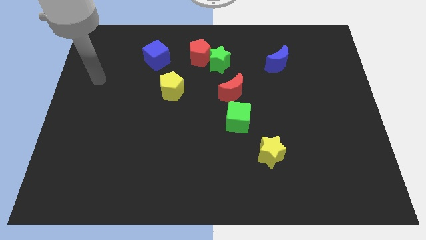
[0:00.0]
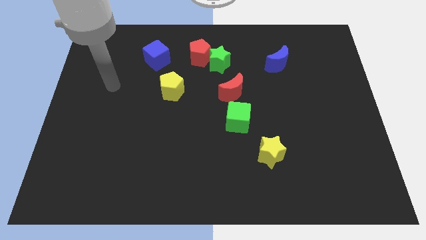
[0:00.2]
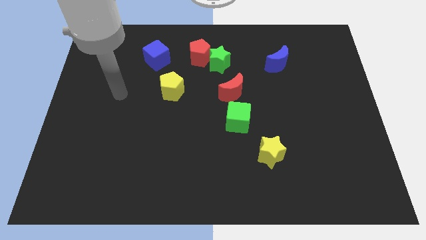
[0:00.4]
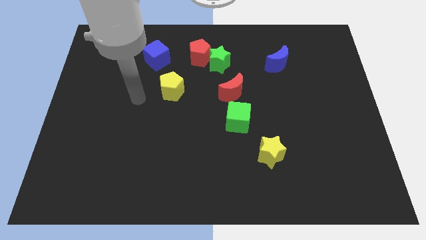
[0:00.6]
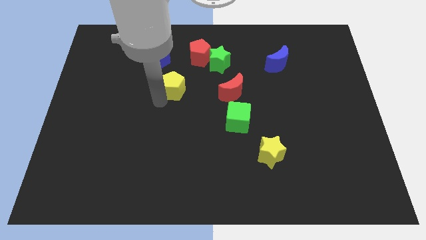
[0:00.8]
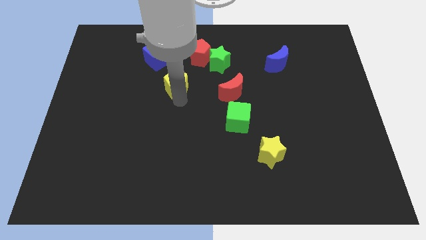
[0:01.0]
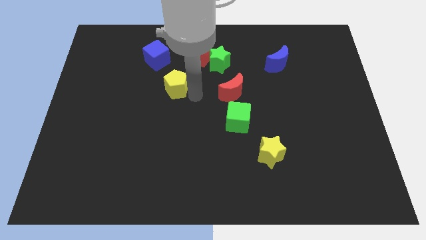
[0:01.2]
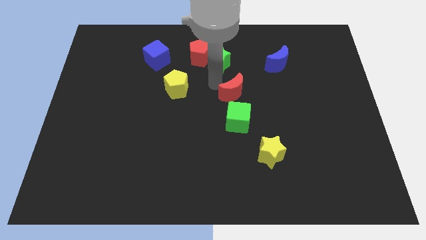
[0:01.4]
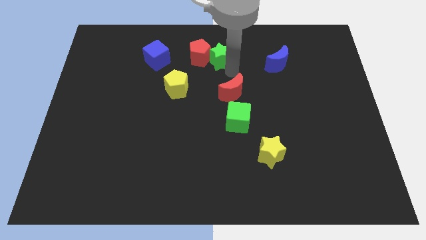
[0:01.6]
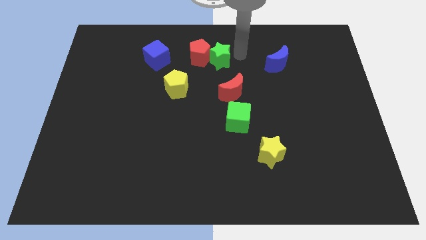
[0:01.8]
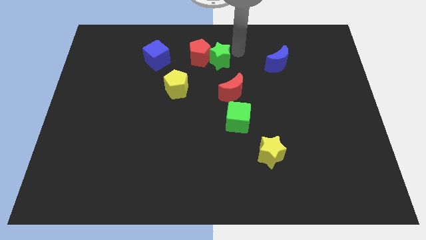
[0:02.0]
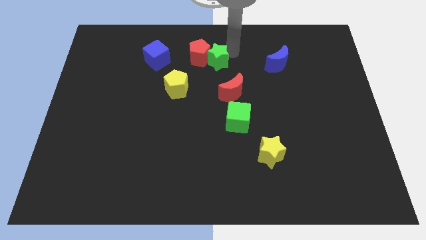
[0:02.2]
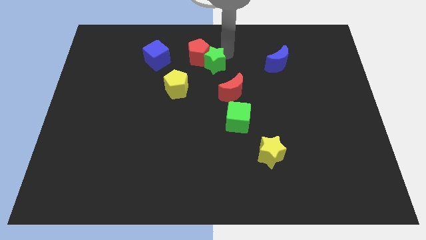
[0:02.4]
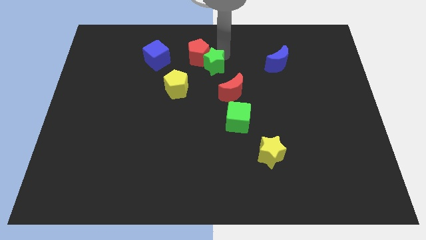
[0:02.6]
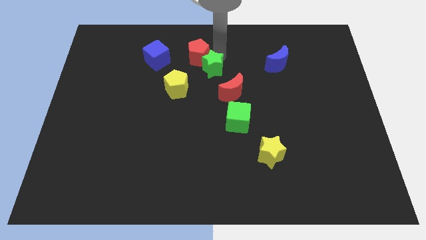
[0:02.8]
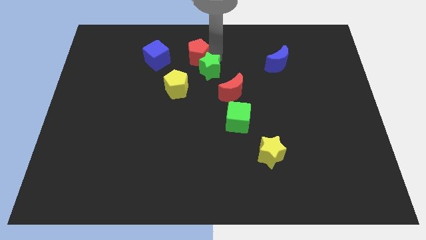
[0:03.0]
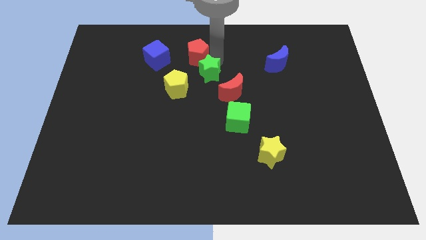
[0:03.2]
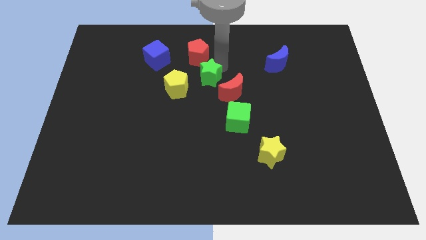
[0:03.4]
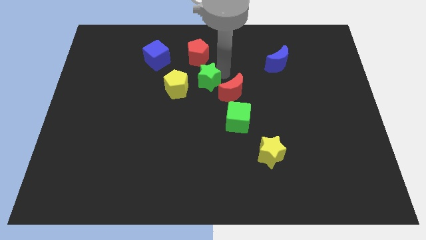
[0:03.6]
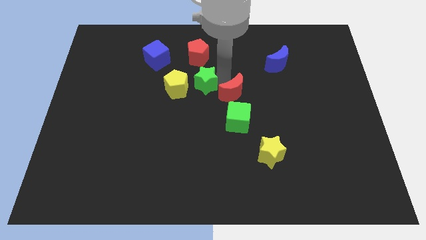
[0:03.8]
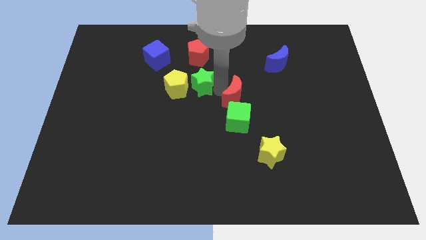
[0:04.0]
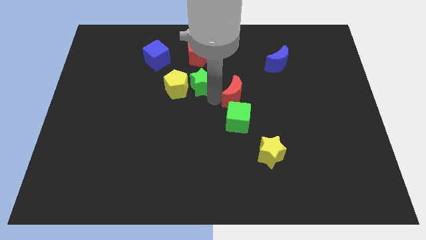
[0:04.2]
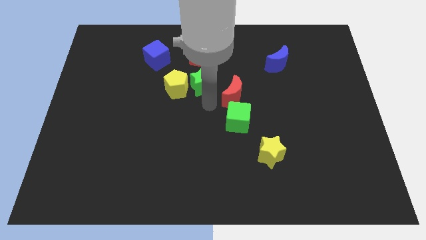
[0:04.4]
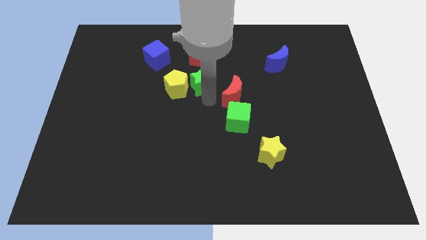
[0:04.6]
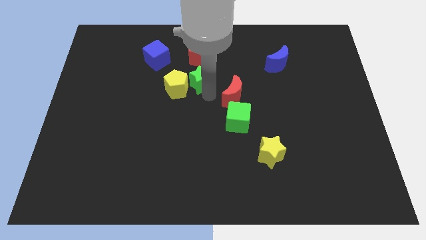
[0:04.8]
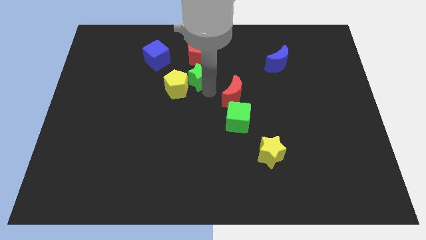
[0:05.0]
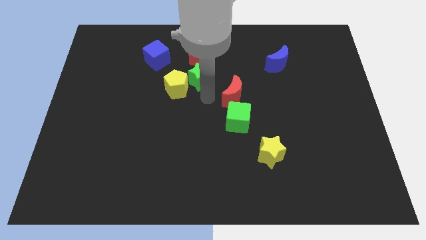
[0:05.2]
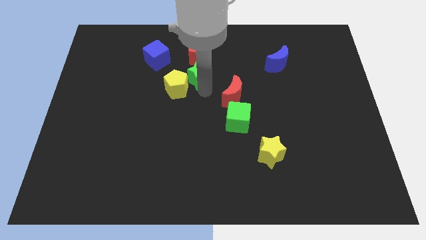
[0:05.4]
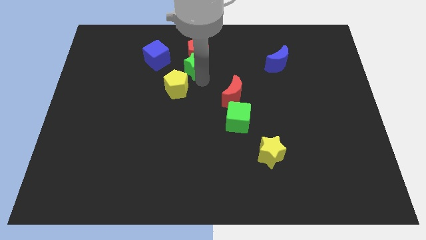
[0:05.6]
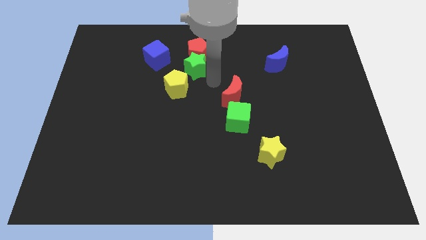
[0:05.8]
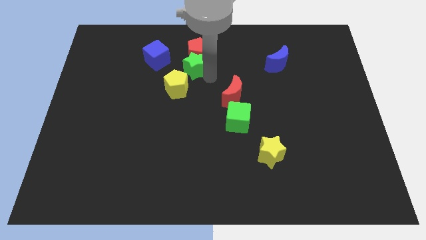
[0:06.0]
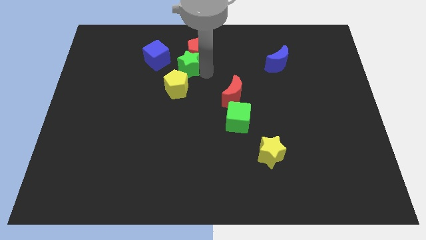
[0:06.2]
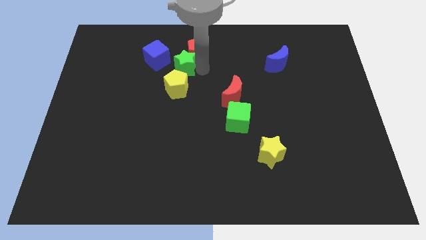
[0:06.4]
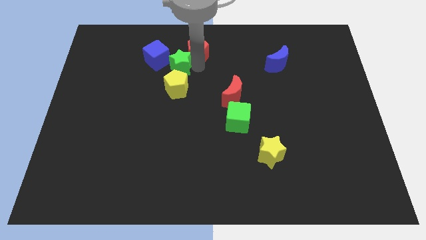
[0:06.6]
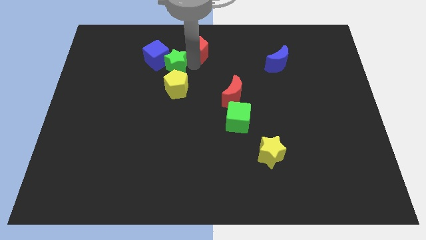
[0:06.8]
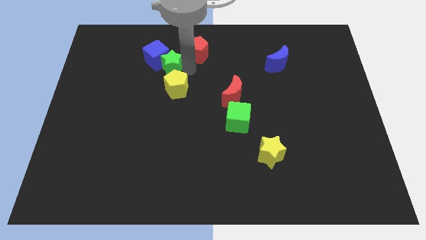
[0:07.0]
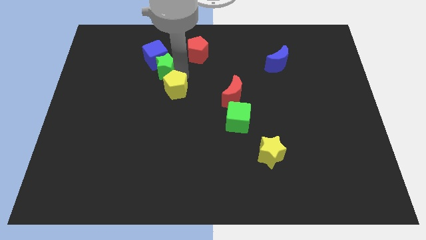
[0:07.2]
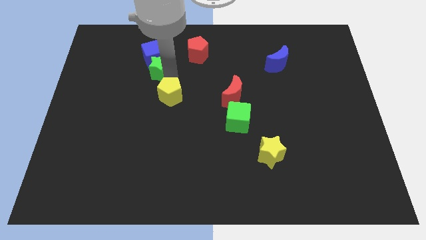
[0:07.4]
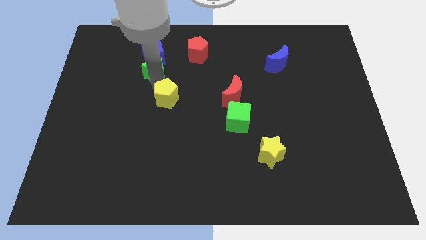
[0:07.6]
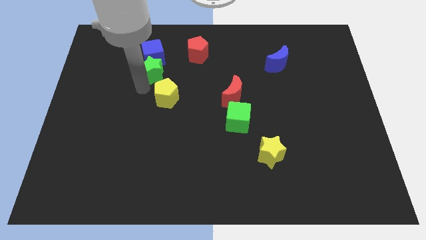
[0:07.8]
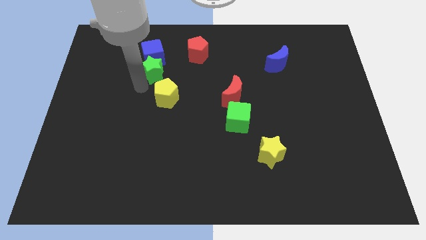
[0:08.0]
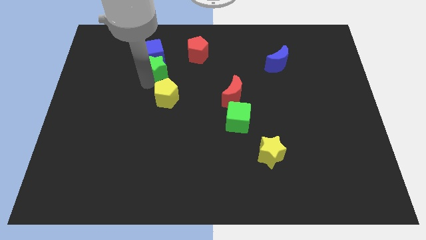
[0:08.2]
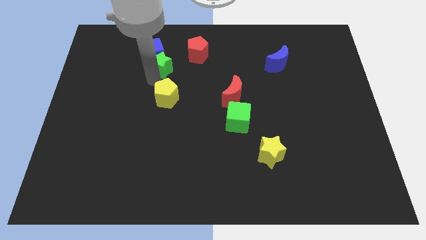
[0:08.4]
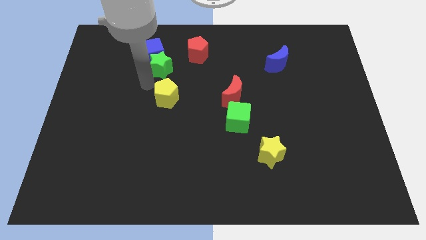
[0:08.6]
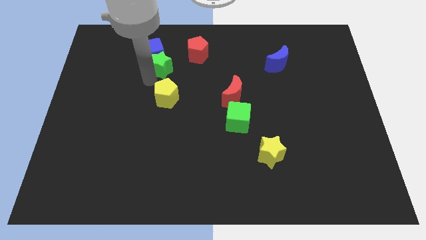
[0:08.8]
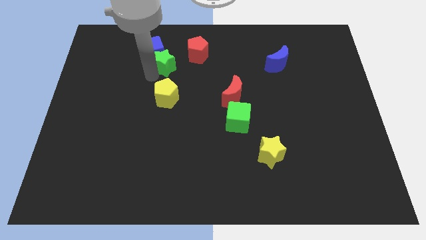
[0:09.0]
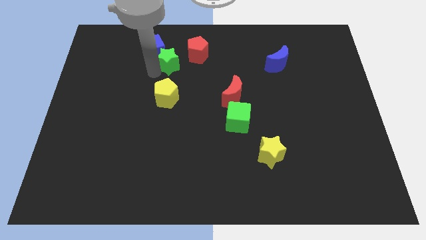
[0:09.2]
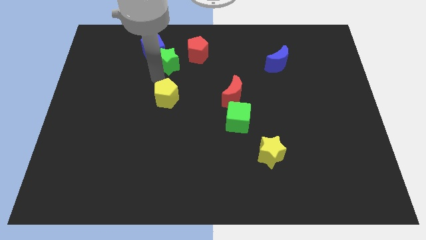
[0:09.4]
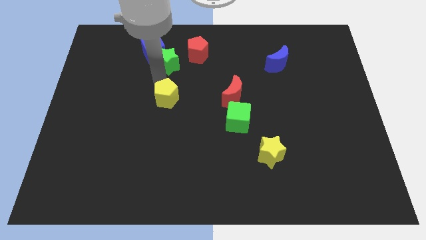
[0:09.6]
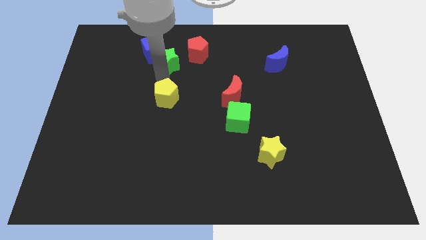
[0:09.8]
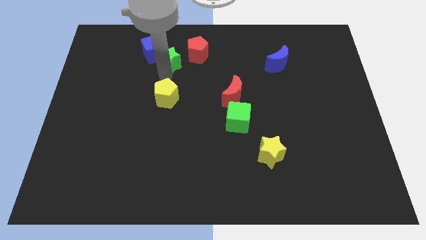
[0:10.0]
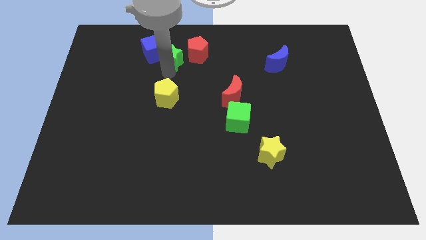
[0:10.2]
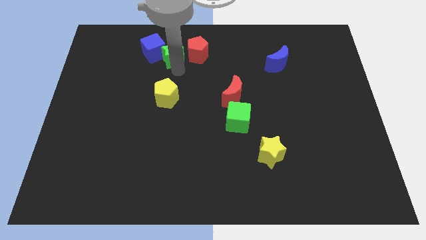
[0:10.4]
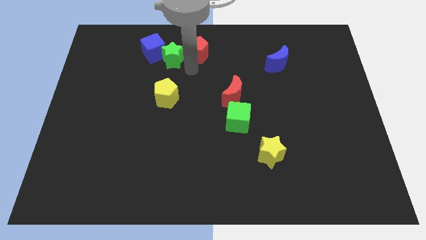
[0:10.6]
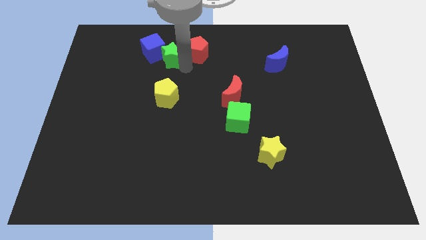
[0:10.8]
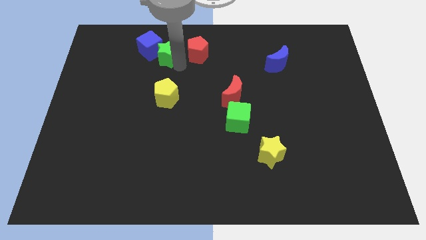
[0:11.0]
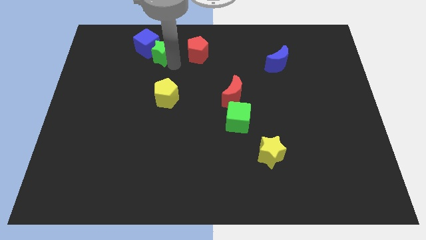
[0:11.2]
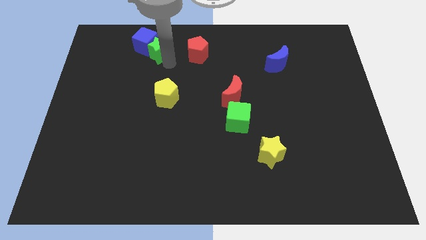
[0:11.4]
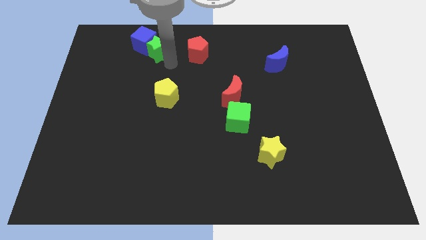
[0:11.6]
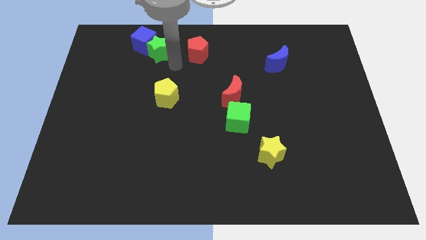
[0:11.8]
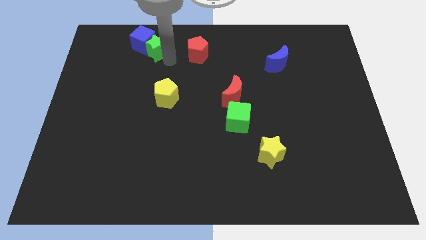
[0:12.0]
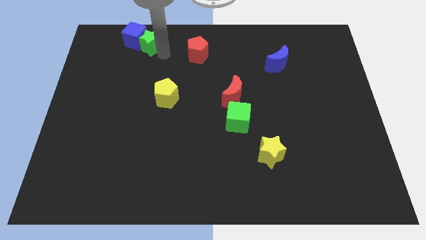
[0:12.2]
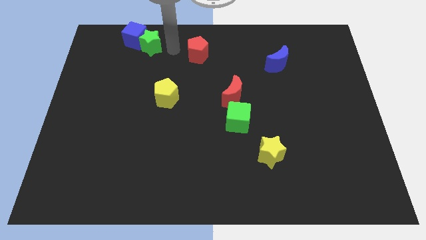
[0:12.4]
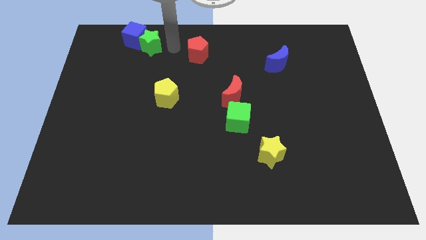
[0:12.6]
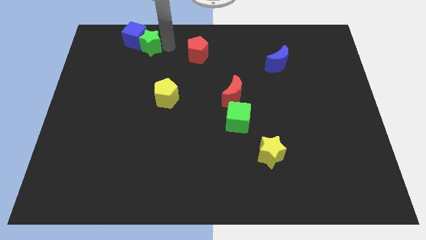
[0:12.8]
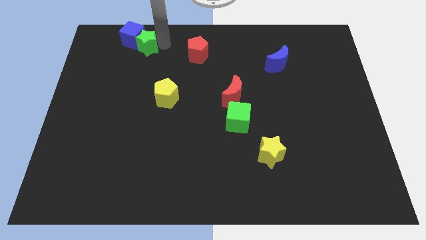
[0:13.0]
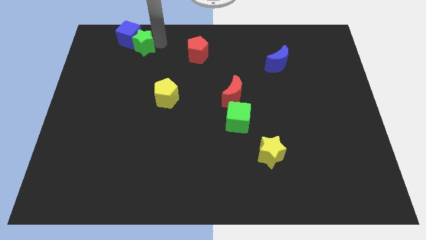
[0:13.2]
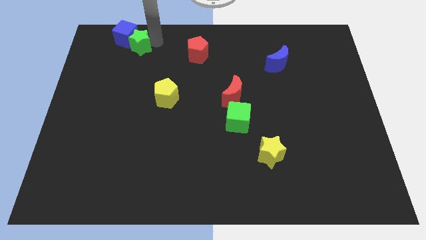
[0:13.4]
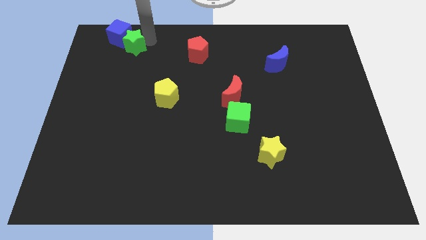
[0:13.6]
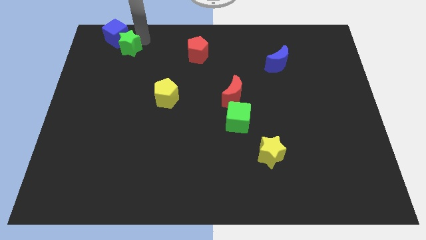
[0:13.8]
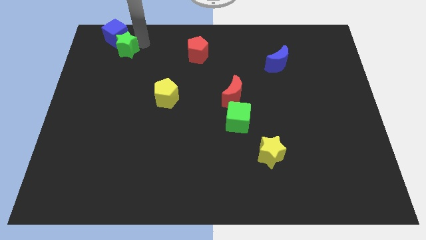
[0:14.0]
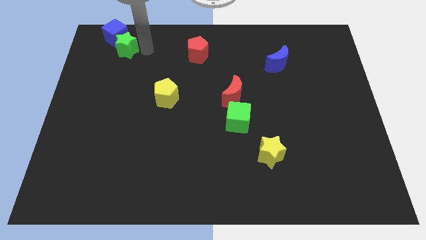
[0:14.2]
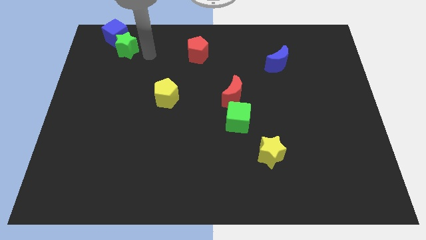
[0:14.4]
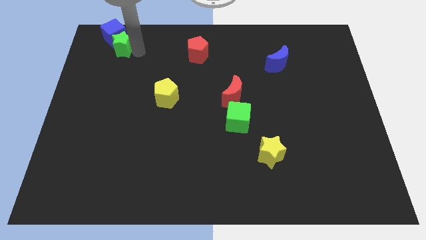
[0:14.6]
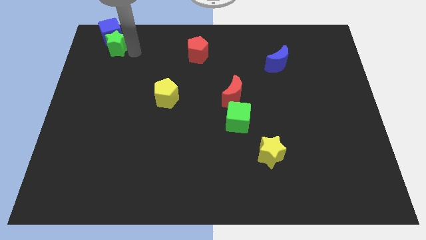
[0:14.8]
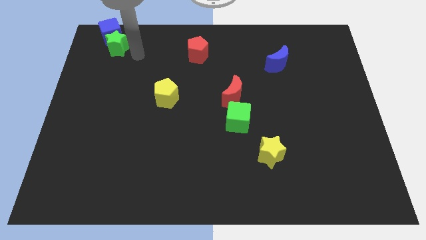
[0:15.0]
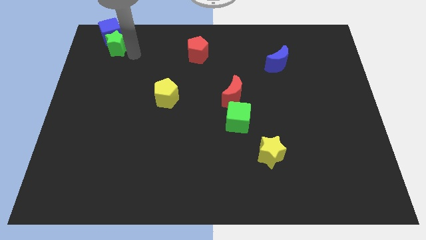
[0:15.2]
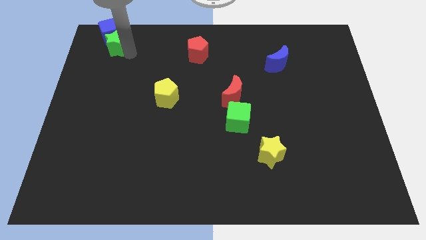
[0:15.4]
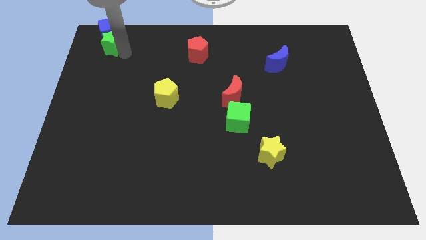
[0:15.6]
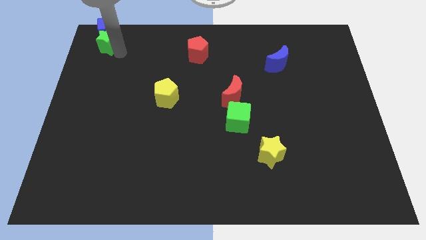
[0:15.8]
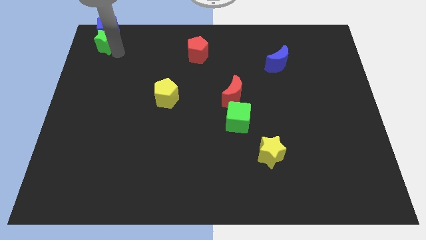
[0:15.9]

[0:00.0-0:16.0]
push the green star to the top left
